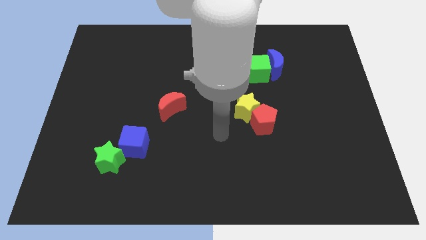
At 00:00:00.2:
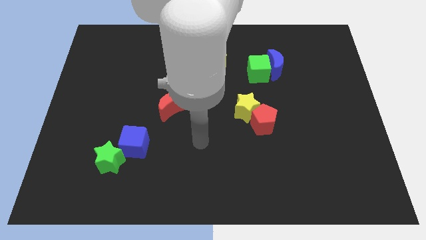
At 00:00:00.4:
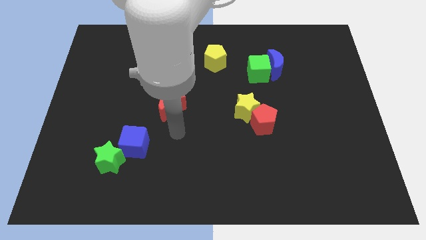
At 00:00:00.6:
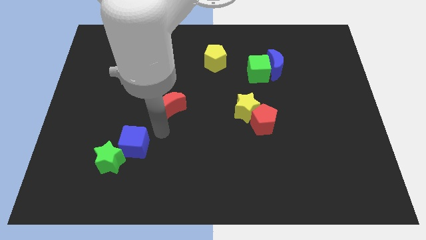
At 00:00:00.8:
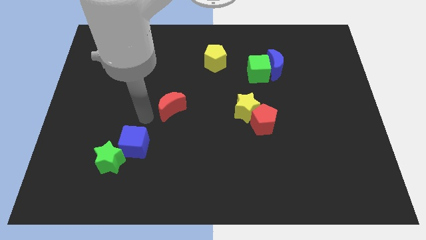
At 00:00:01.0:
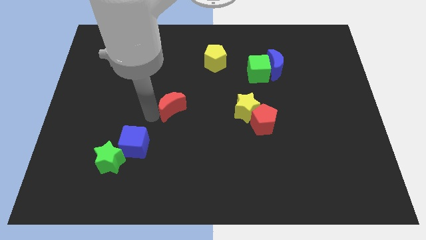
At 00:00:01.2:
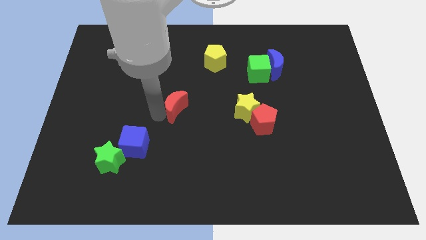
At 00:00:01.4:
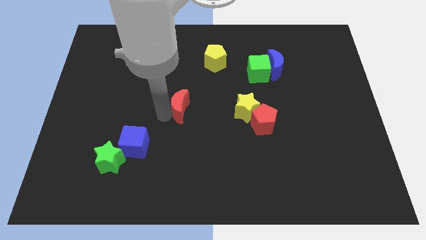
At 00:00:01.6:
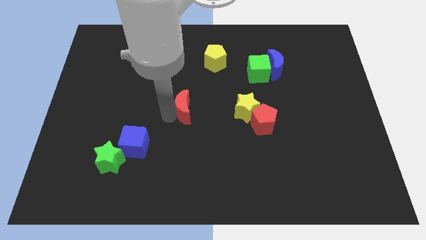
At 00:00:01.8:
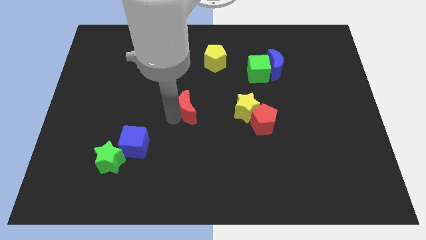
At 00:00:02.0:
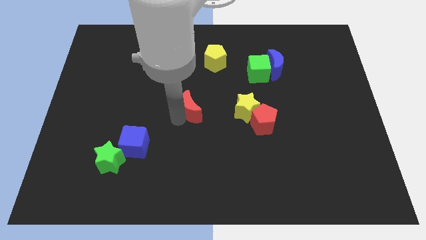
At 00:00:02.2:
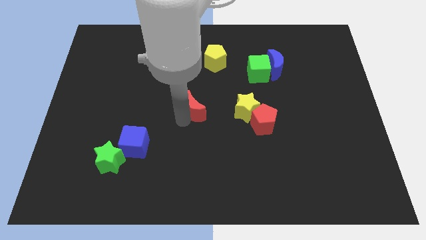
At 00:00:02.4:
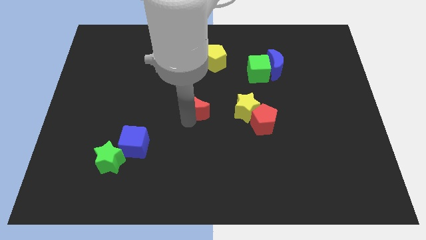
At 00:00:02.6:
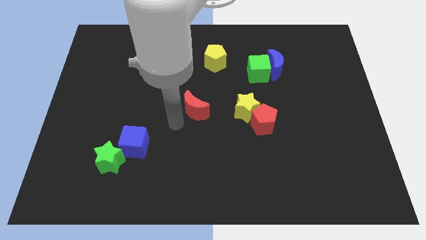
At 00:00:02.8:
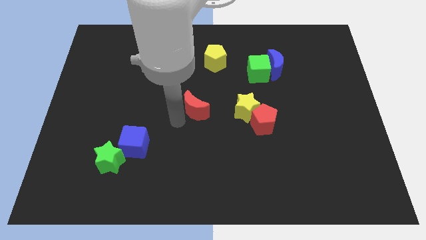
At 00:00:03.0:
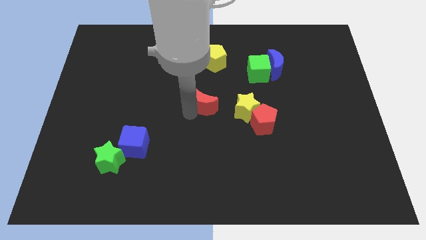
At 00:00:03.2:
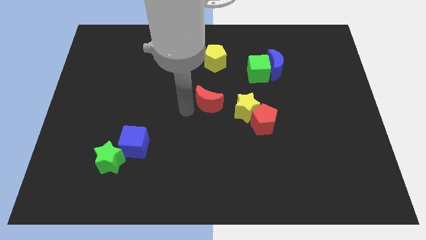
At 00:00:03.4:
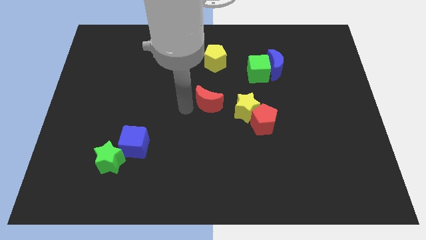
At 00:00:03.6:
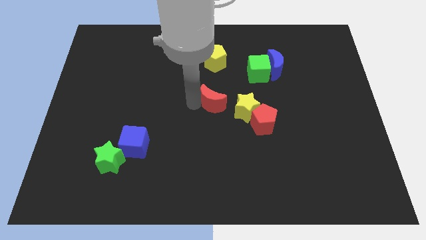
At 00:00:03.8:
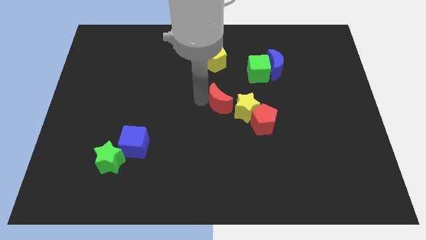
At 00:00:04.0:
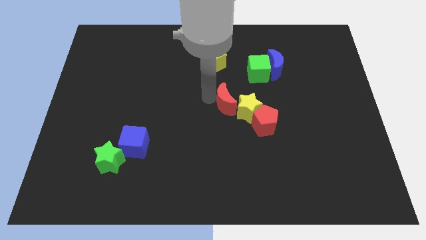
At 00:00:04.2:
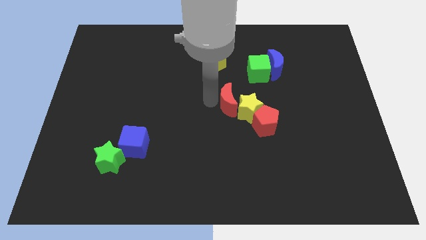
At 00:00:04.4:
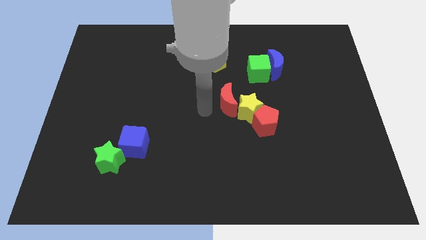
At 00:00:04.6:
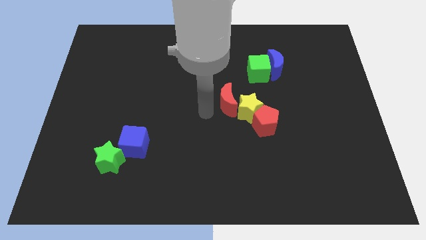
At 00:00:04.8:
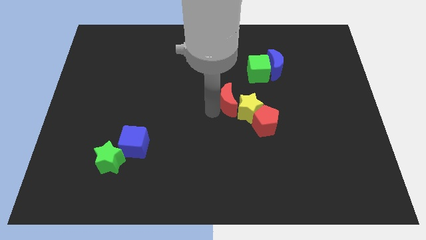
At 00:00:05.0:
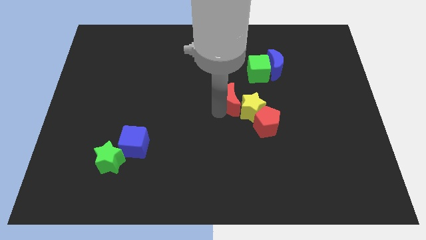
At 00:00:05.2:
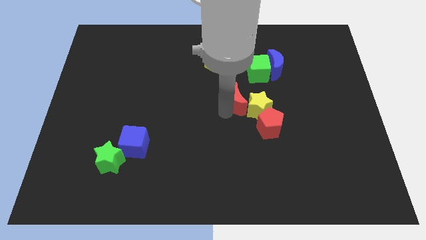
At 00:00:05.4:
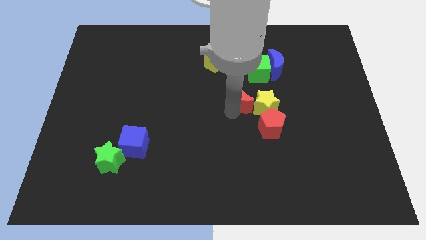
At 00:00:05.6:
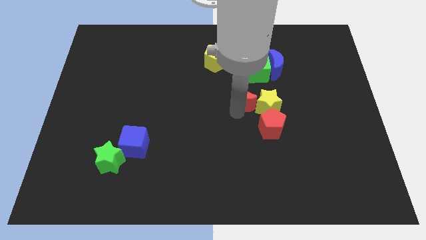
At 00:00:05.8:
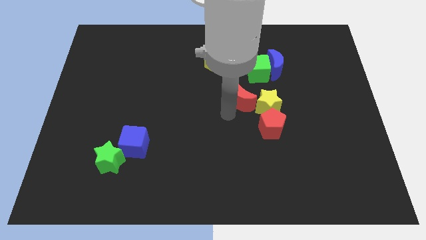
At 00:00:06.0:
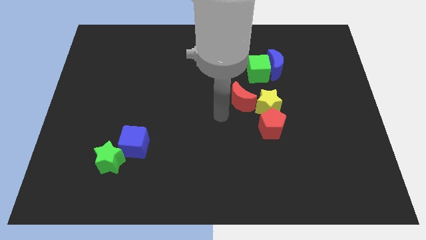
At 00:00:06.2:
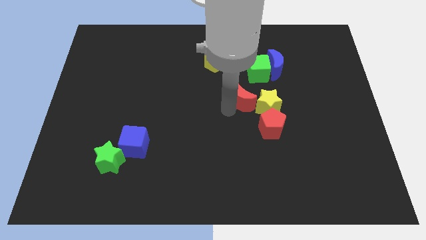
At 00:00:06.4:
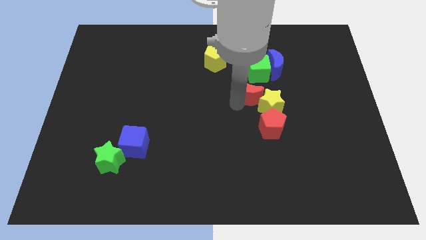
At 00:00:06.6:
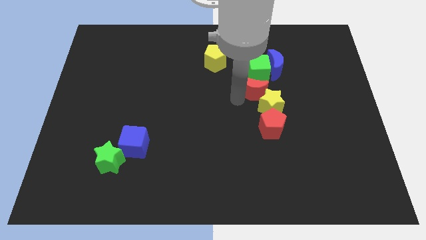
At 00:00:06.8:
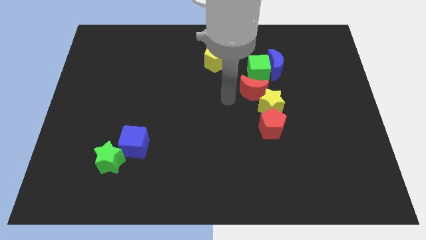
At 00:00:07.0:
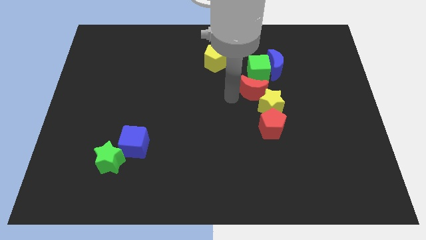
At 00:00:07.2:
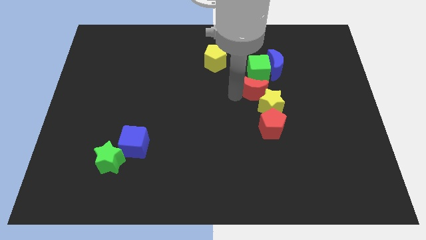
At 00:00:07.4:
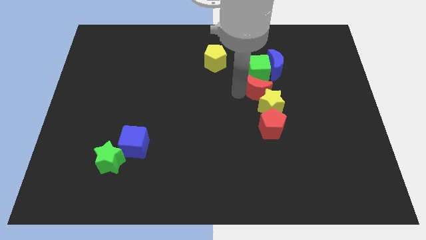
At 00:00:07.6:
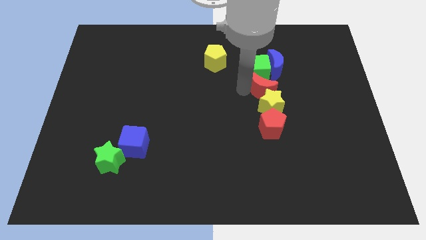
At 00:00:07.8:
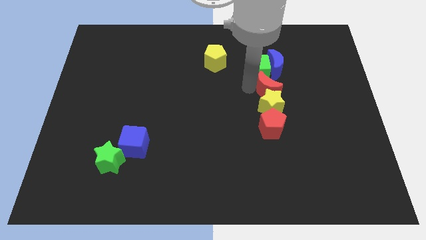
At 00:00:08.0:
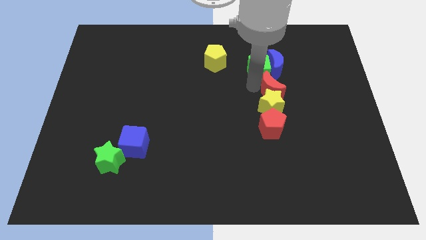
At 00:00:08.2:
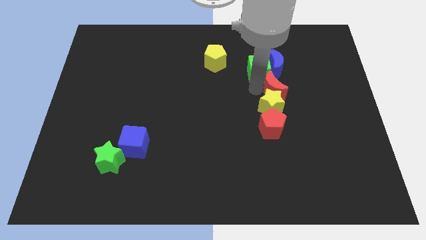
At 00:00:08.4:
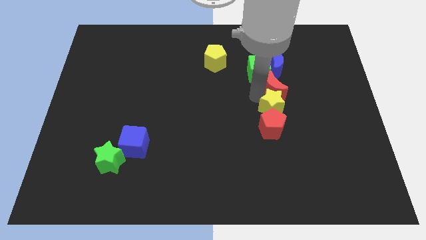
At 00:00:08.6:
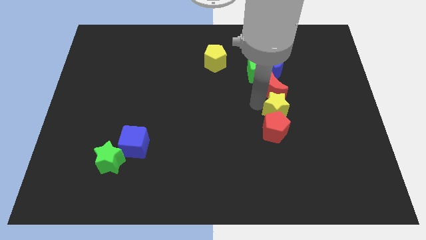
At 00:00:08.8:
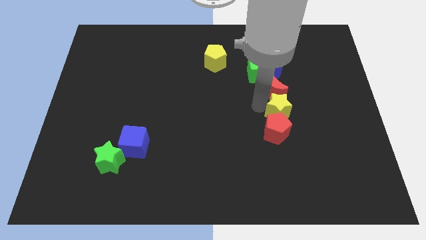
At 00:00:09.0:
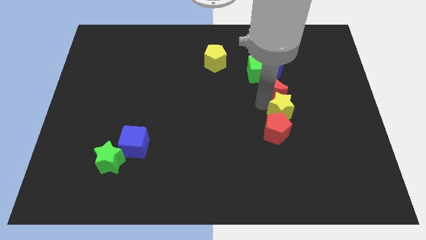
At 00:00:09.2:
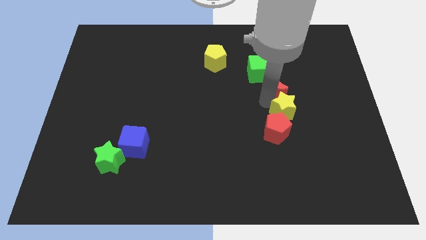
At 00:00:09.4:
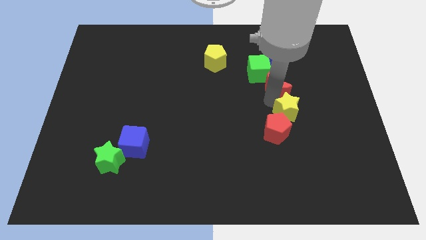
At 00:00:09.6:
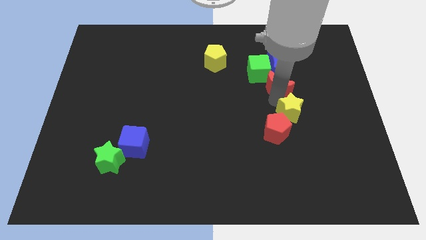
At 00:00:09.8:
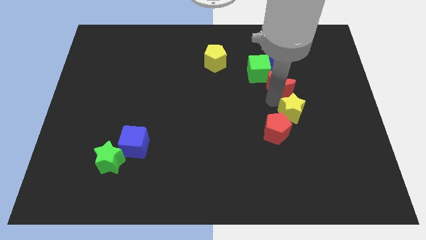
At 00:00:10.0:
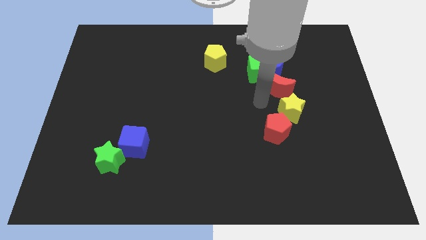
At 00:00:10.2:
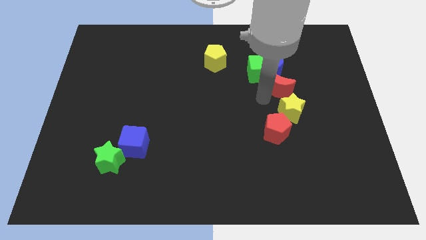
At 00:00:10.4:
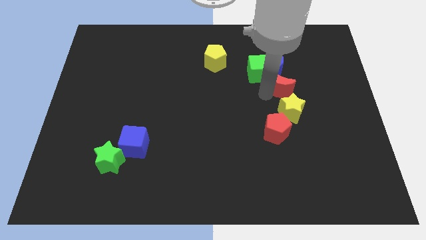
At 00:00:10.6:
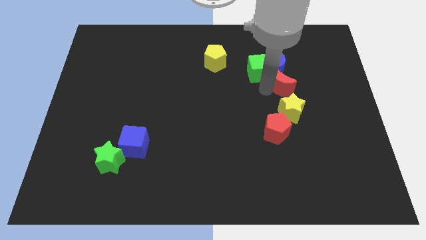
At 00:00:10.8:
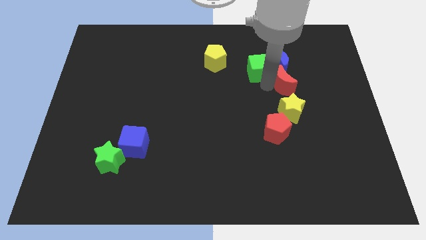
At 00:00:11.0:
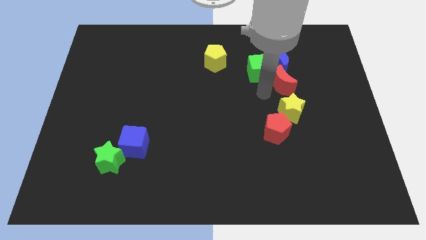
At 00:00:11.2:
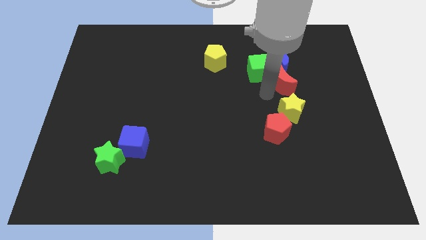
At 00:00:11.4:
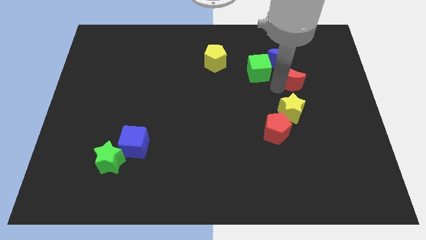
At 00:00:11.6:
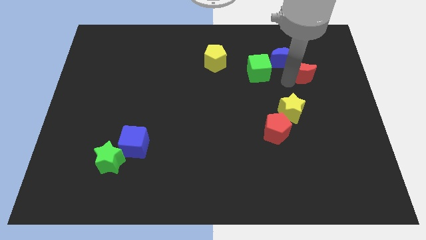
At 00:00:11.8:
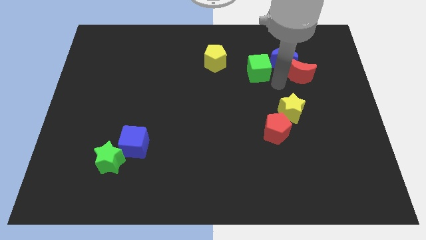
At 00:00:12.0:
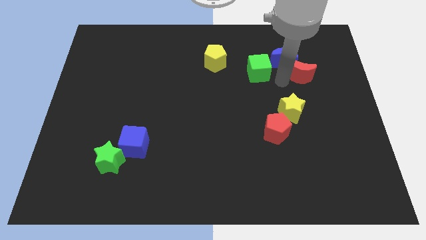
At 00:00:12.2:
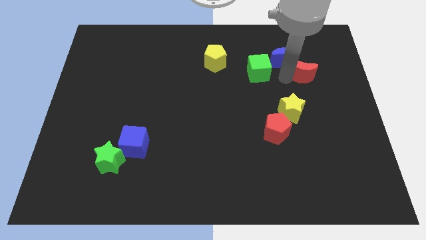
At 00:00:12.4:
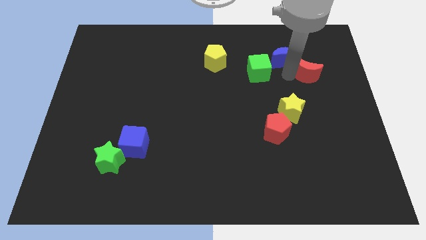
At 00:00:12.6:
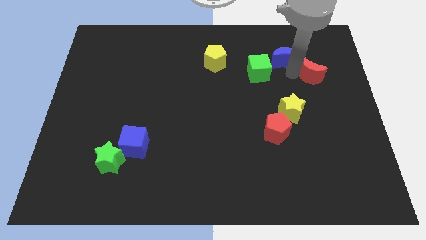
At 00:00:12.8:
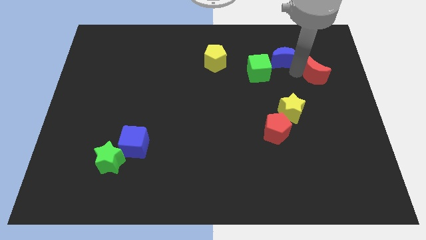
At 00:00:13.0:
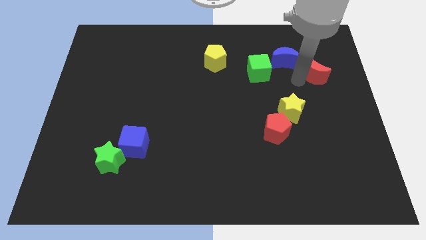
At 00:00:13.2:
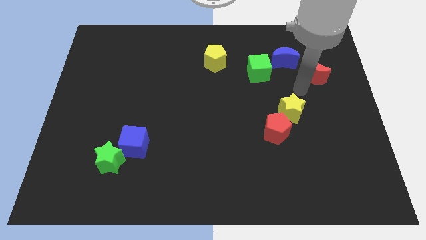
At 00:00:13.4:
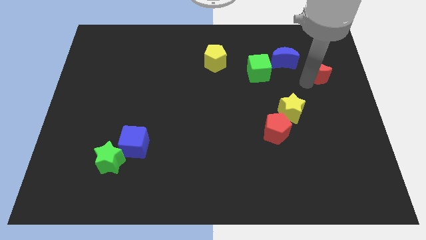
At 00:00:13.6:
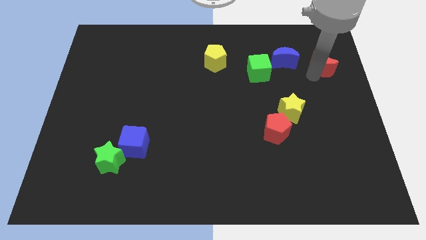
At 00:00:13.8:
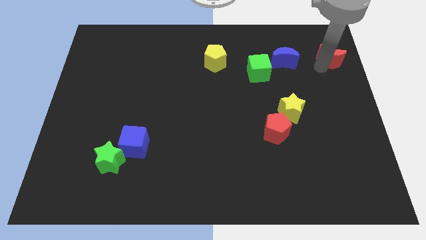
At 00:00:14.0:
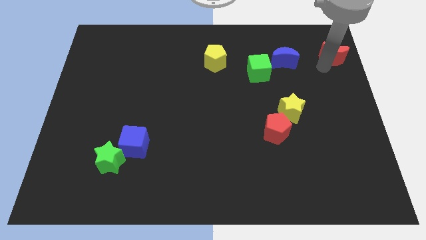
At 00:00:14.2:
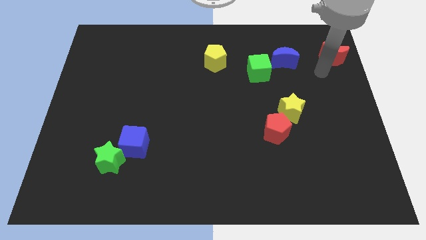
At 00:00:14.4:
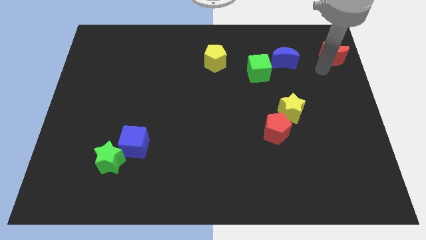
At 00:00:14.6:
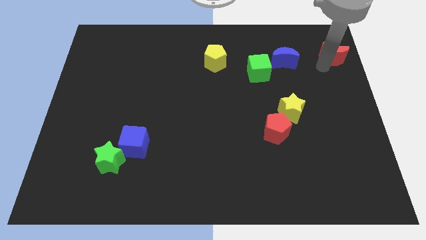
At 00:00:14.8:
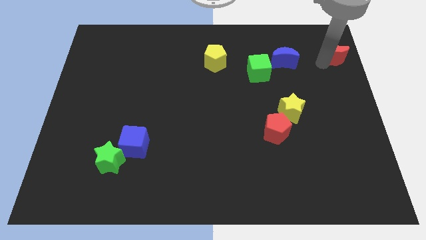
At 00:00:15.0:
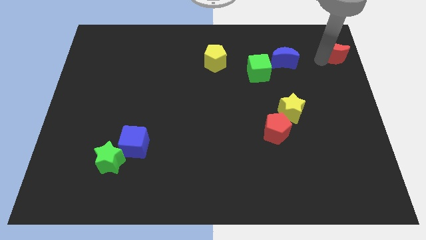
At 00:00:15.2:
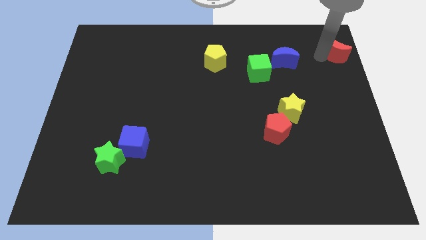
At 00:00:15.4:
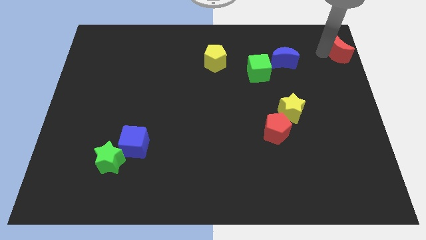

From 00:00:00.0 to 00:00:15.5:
push the red moon to the upper right corner
